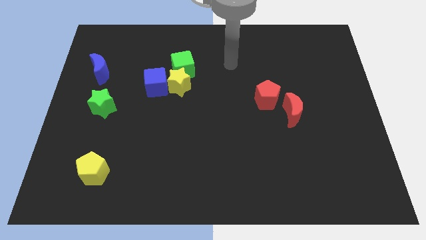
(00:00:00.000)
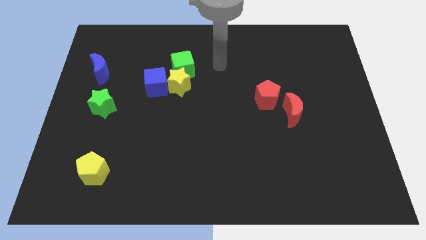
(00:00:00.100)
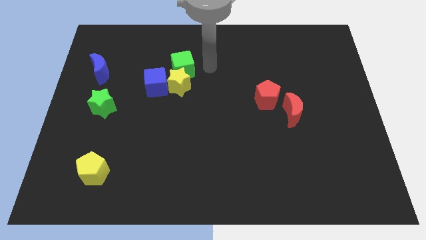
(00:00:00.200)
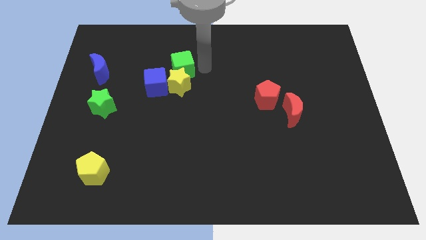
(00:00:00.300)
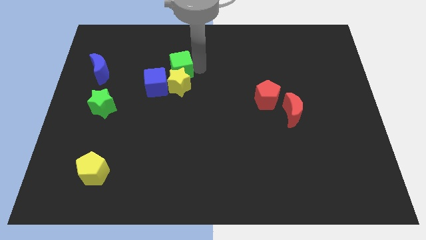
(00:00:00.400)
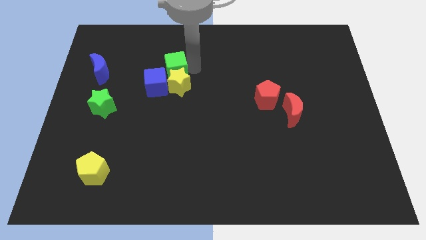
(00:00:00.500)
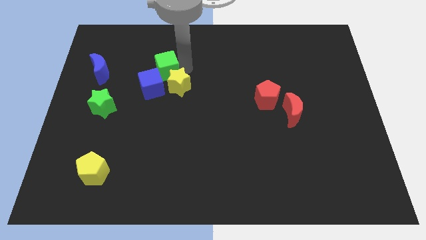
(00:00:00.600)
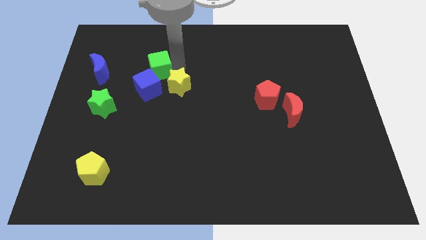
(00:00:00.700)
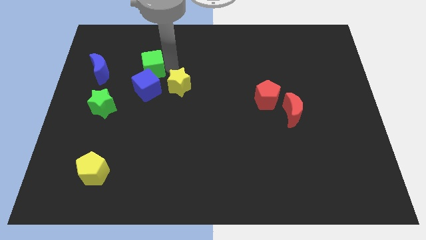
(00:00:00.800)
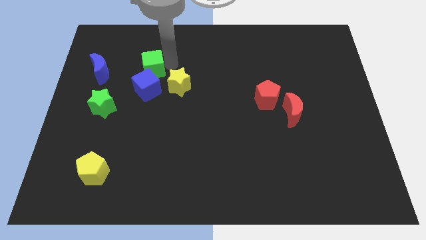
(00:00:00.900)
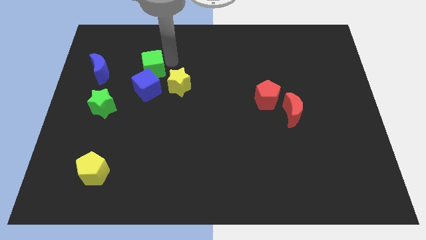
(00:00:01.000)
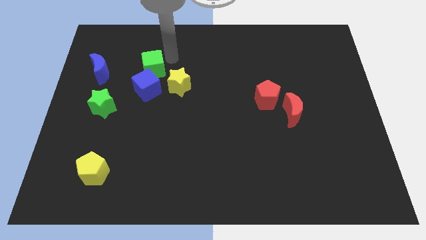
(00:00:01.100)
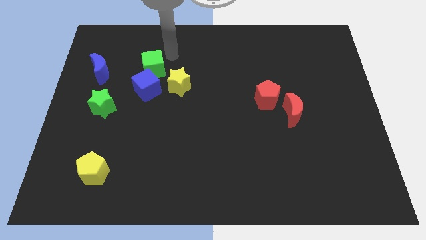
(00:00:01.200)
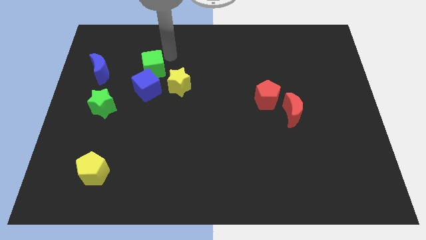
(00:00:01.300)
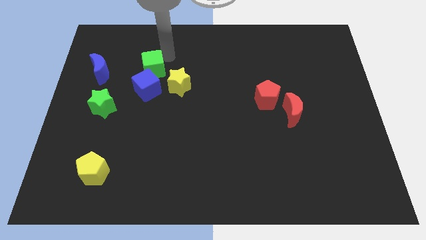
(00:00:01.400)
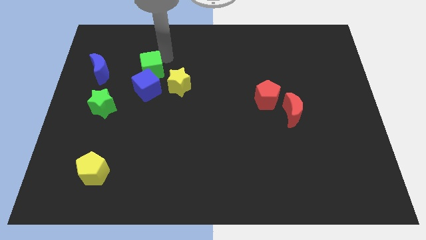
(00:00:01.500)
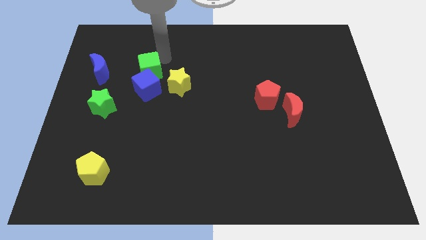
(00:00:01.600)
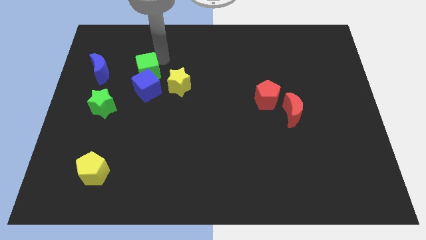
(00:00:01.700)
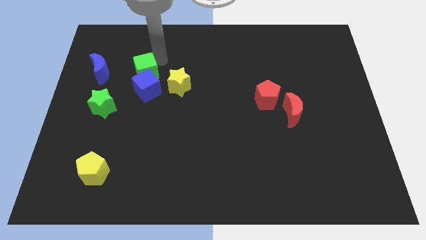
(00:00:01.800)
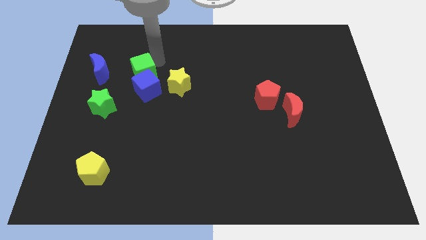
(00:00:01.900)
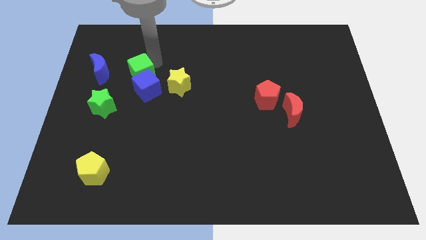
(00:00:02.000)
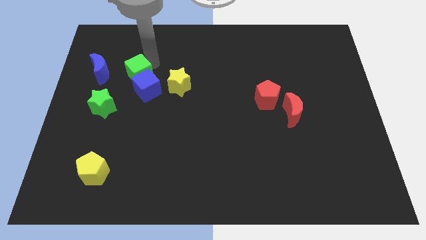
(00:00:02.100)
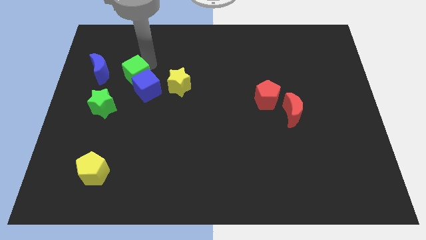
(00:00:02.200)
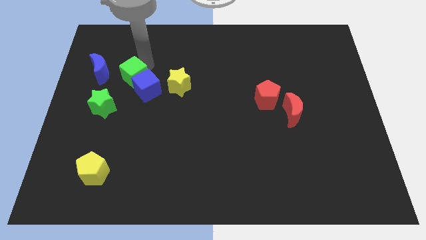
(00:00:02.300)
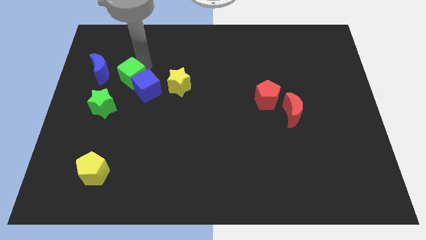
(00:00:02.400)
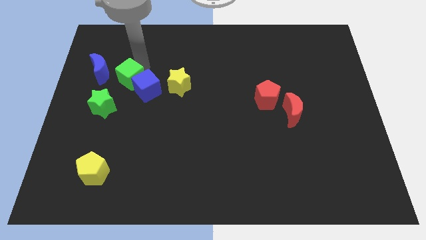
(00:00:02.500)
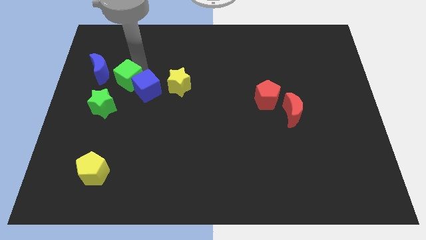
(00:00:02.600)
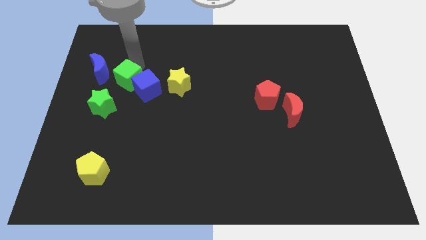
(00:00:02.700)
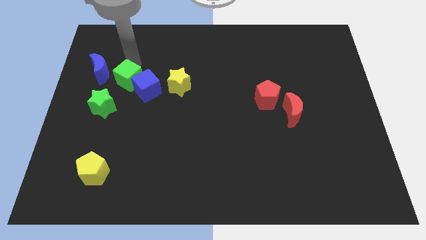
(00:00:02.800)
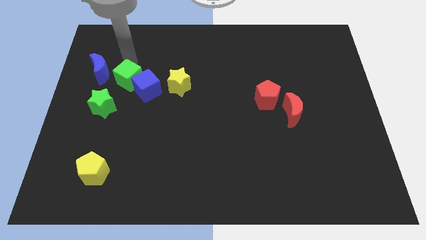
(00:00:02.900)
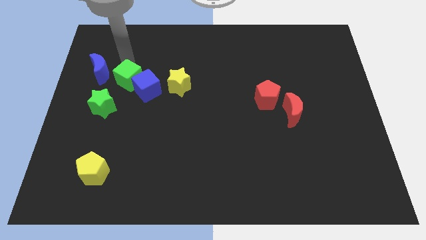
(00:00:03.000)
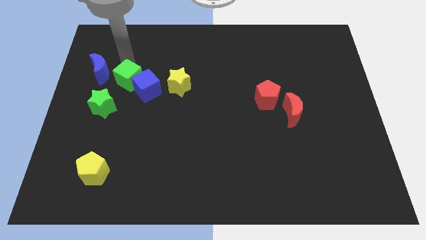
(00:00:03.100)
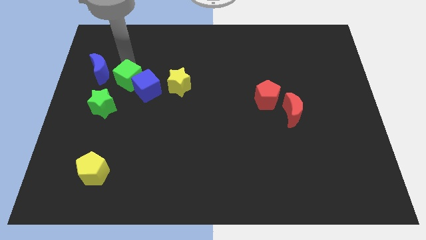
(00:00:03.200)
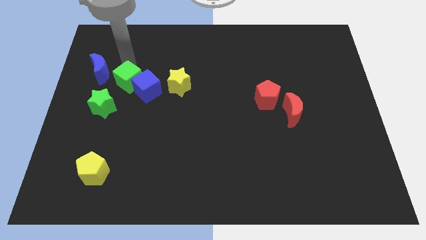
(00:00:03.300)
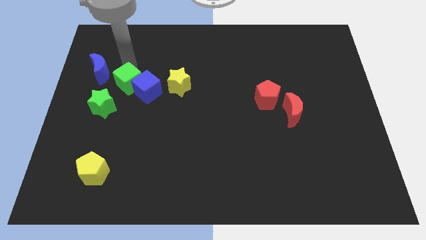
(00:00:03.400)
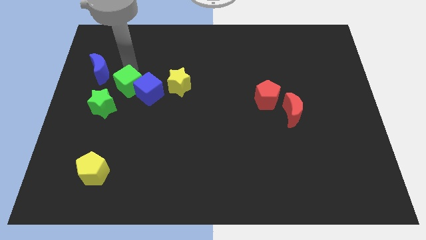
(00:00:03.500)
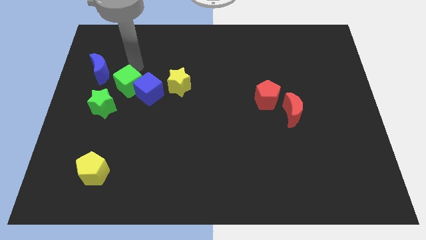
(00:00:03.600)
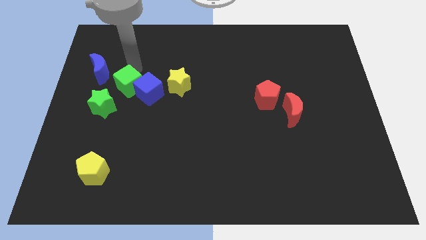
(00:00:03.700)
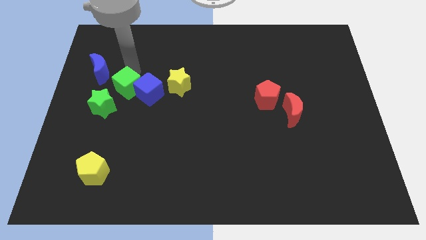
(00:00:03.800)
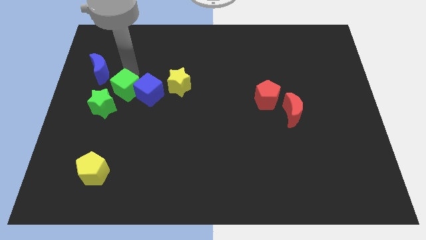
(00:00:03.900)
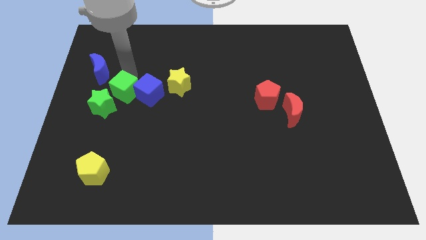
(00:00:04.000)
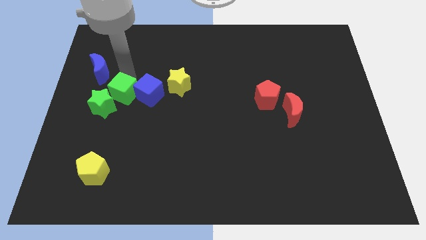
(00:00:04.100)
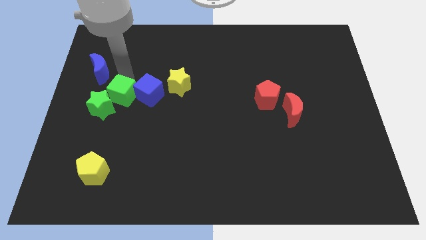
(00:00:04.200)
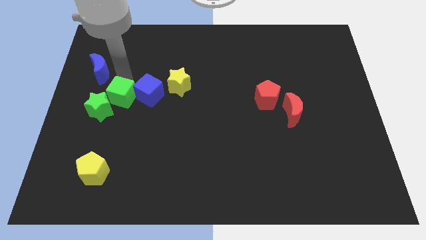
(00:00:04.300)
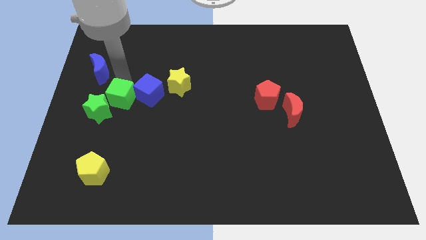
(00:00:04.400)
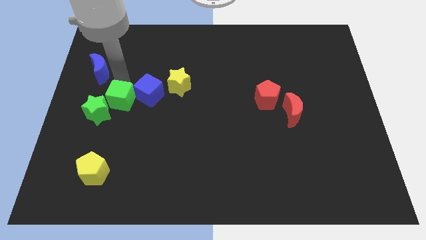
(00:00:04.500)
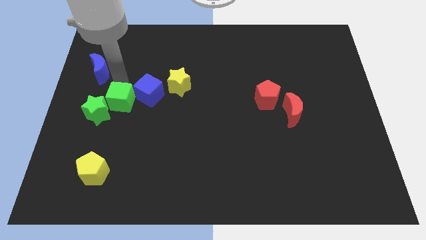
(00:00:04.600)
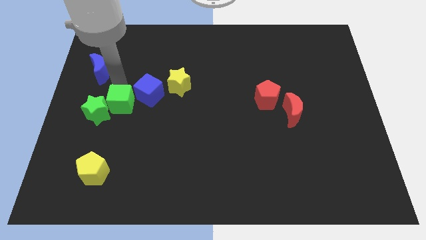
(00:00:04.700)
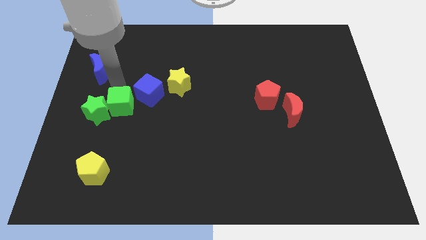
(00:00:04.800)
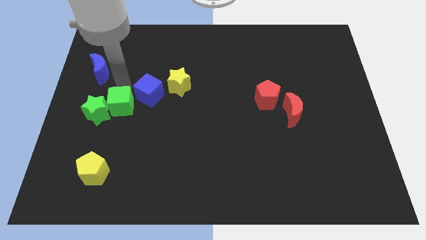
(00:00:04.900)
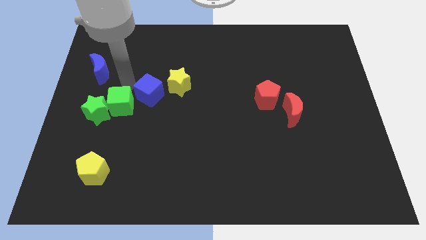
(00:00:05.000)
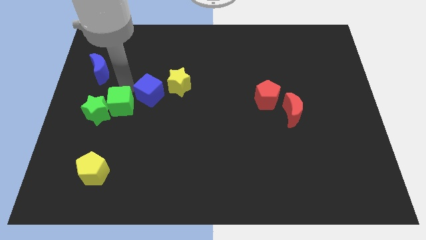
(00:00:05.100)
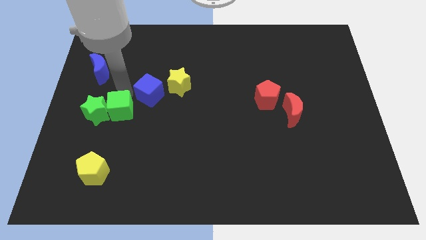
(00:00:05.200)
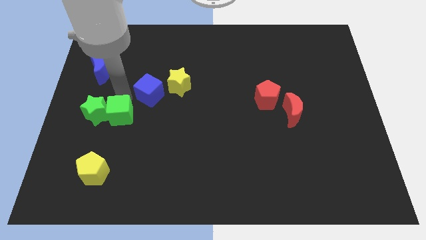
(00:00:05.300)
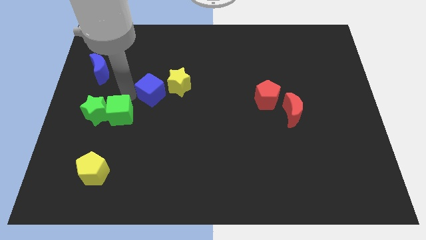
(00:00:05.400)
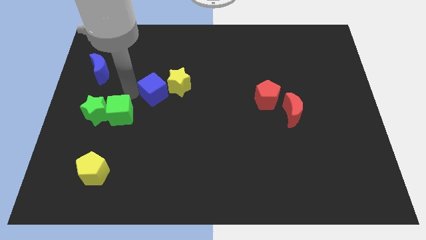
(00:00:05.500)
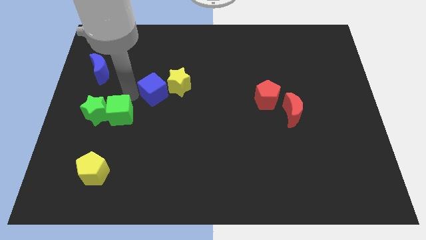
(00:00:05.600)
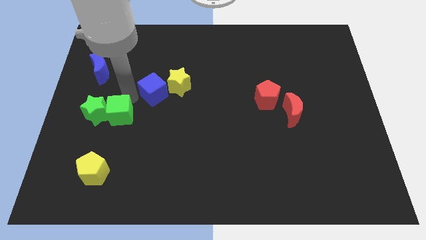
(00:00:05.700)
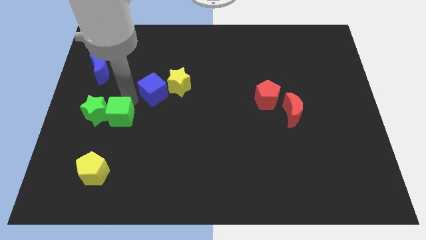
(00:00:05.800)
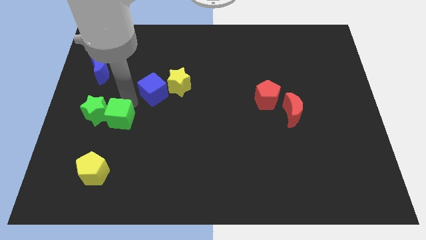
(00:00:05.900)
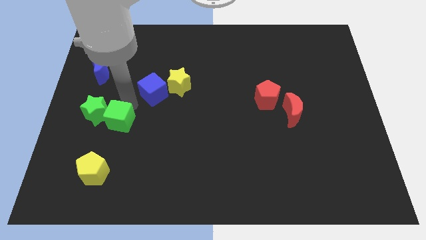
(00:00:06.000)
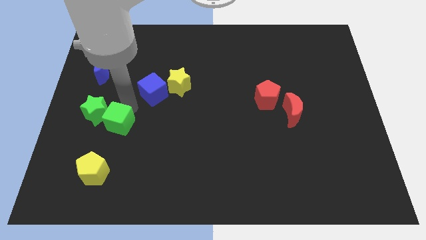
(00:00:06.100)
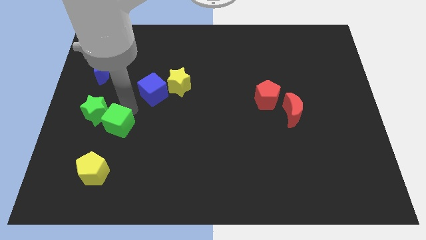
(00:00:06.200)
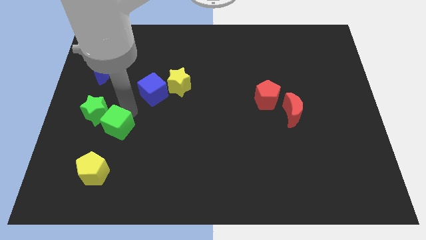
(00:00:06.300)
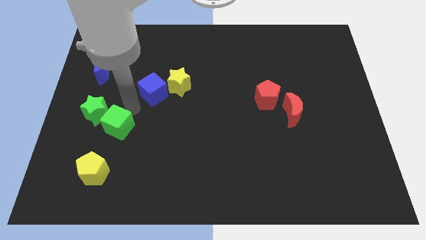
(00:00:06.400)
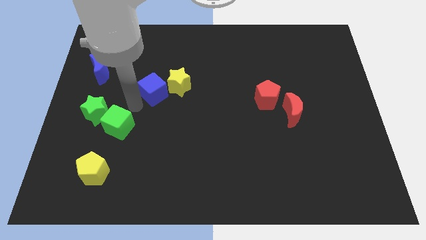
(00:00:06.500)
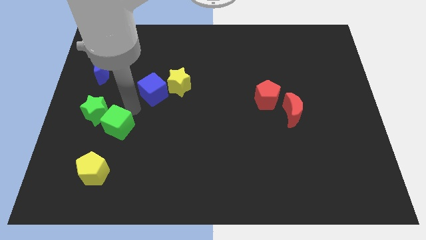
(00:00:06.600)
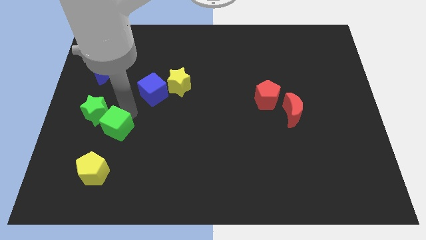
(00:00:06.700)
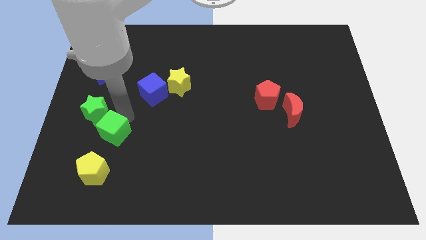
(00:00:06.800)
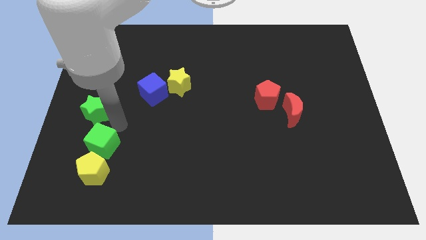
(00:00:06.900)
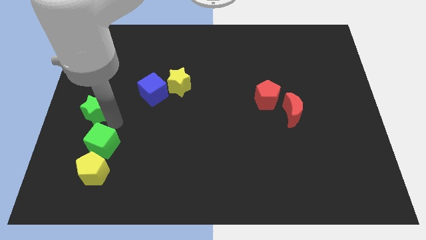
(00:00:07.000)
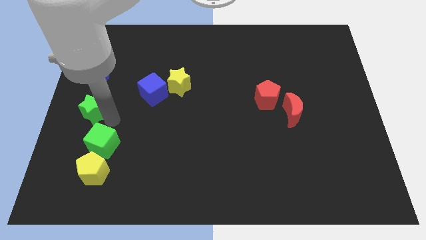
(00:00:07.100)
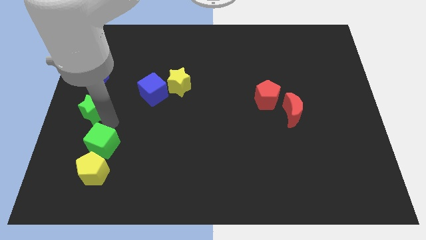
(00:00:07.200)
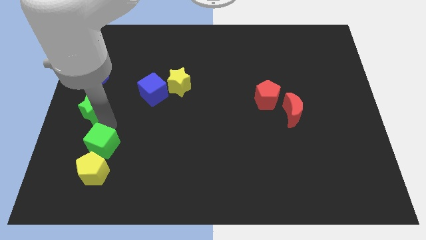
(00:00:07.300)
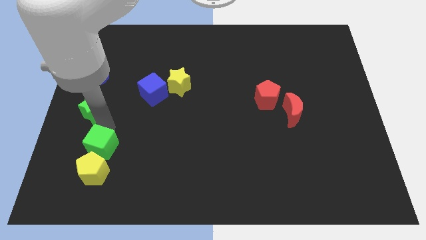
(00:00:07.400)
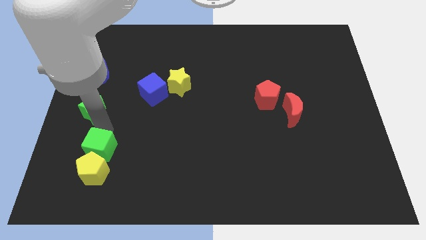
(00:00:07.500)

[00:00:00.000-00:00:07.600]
put the green cube to the yellow pentagon
